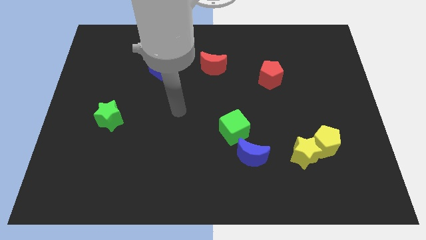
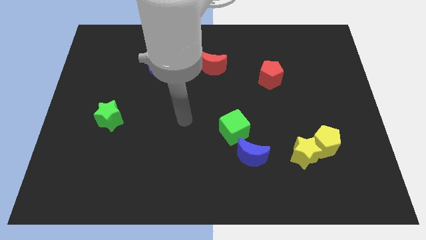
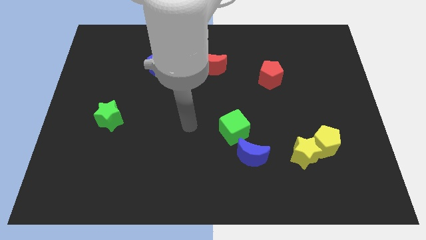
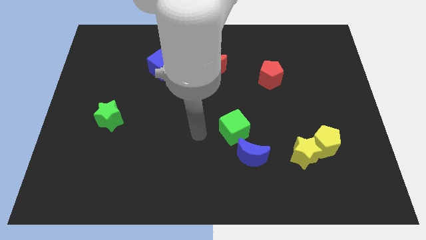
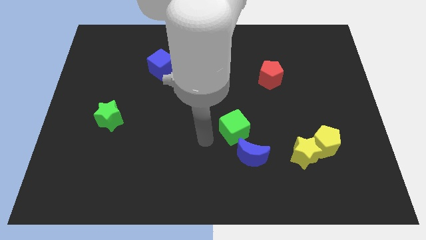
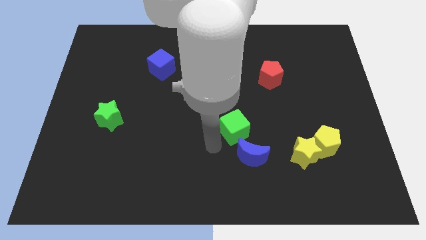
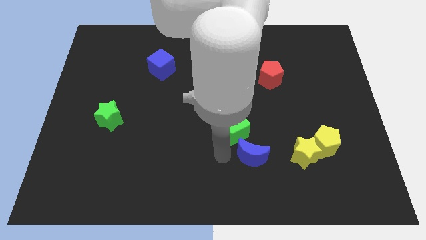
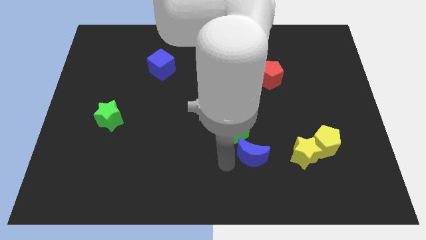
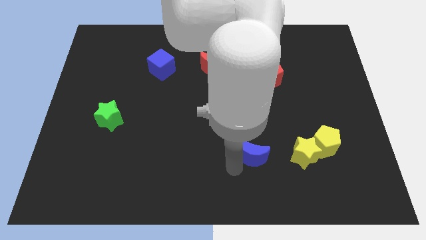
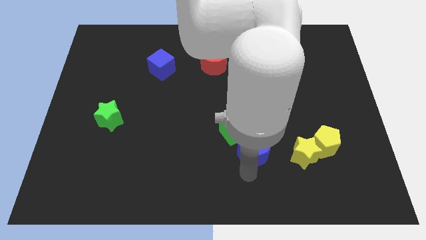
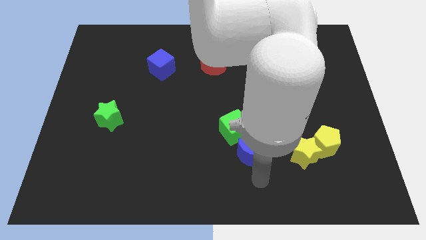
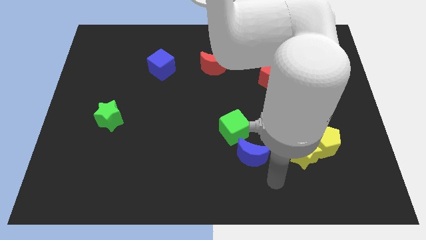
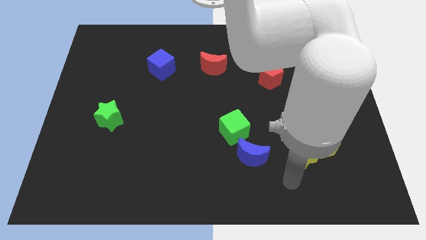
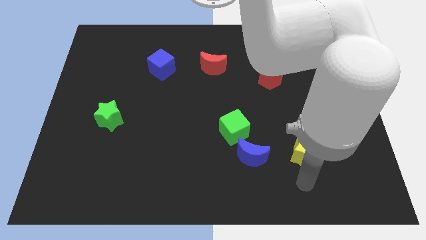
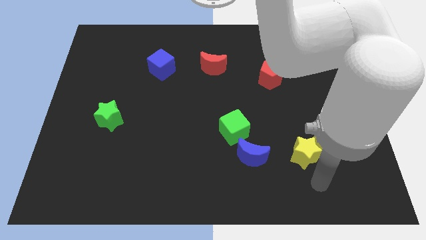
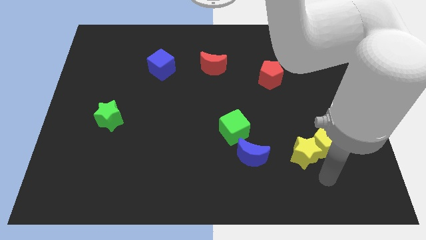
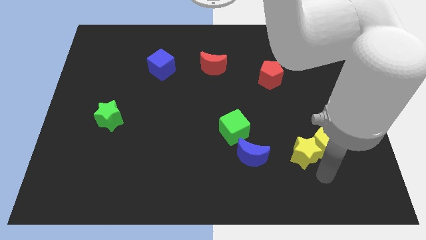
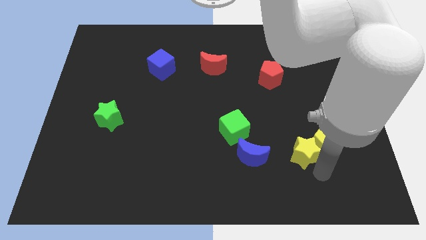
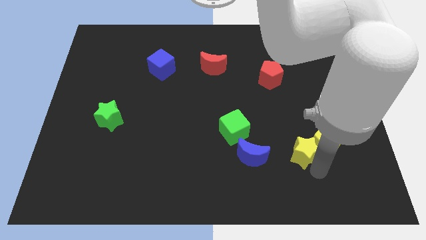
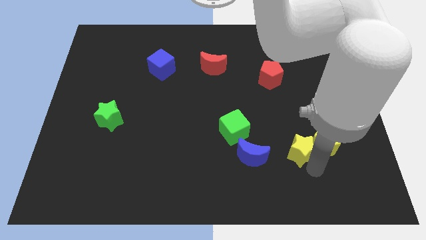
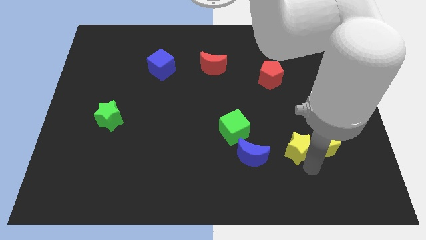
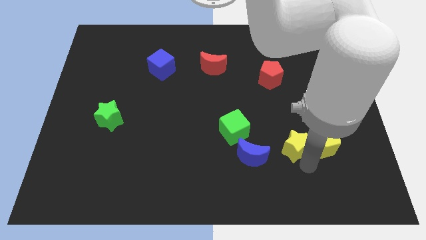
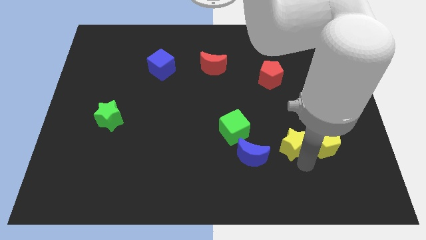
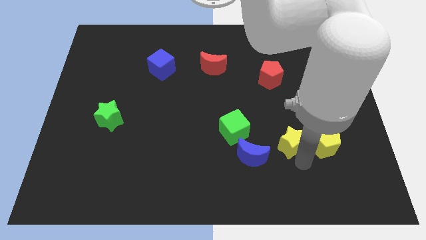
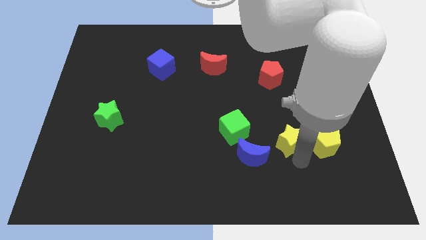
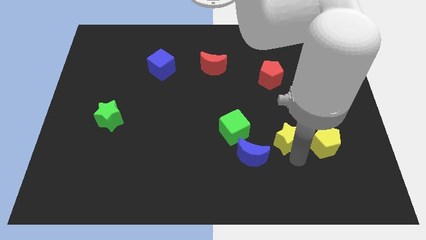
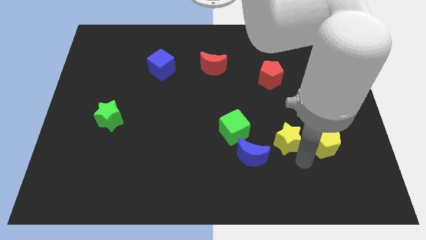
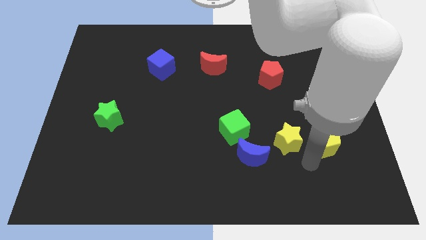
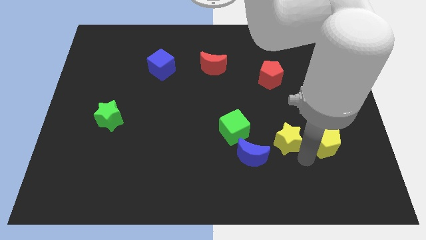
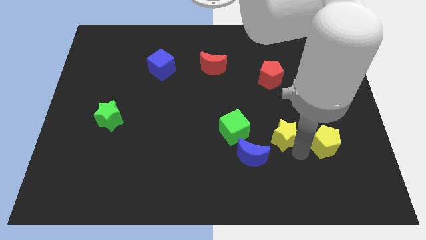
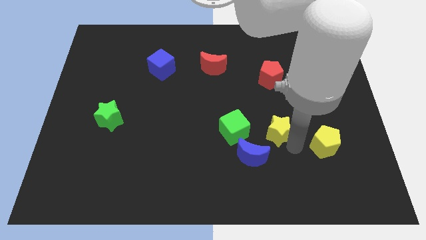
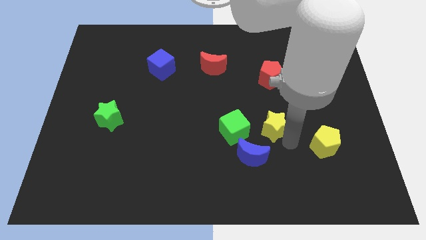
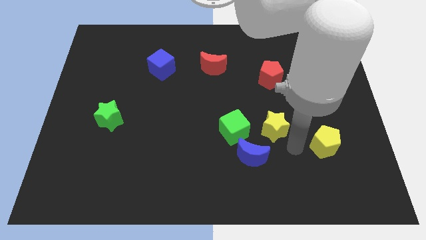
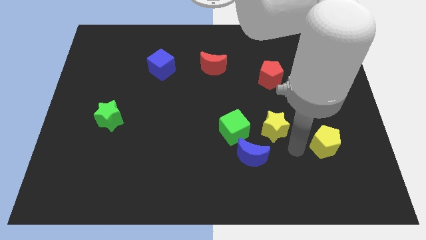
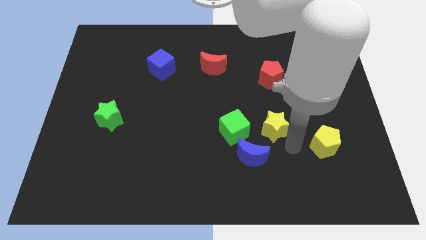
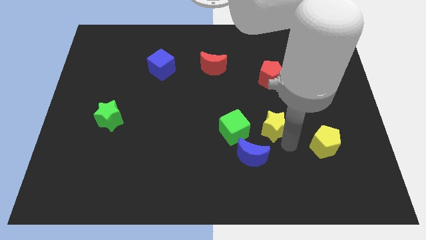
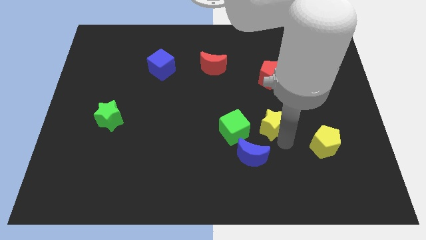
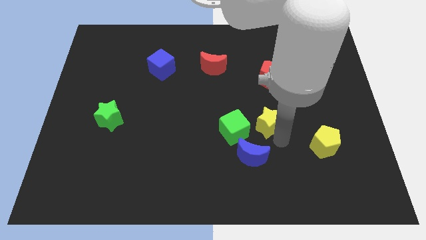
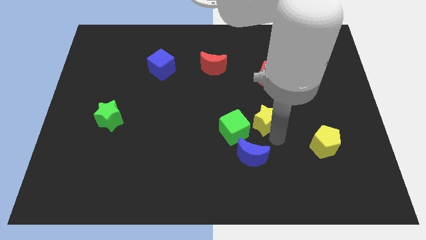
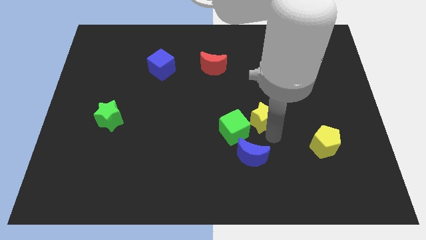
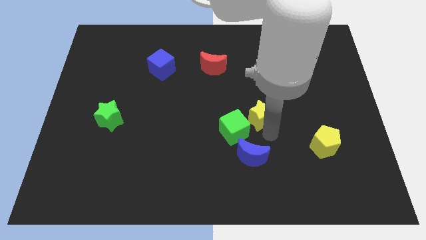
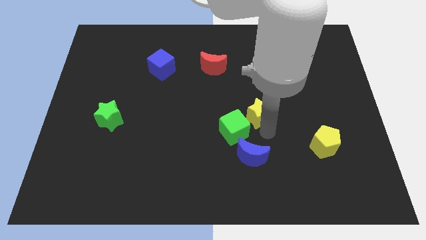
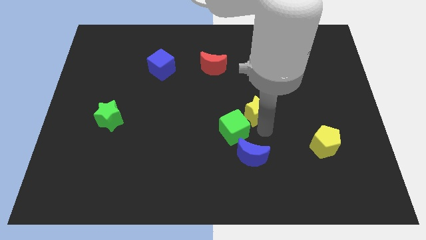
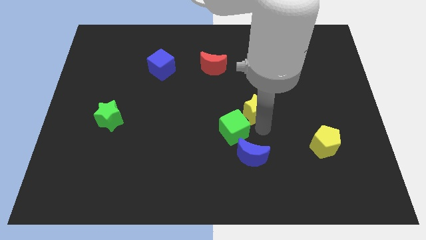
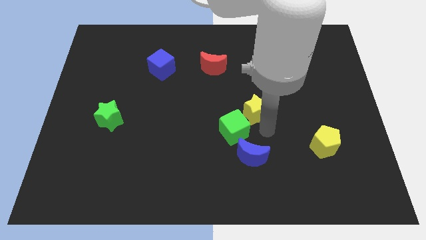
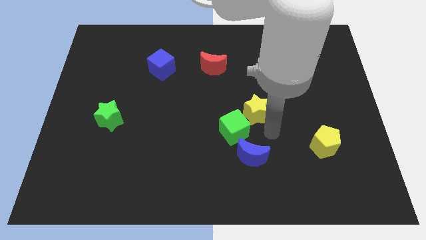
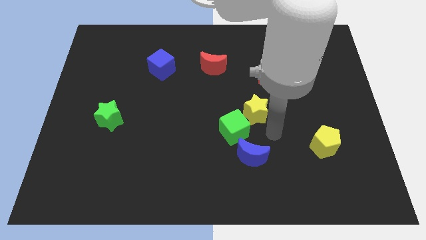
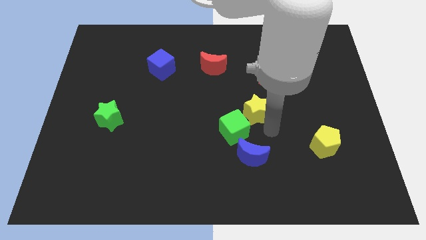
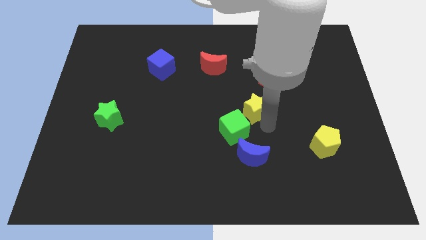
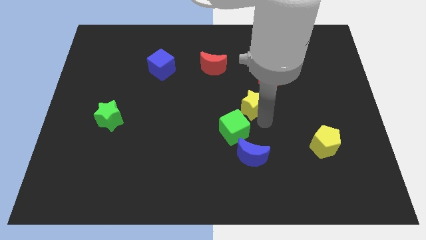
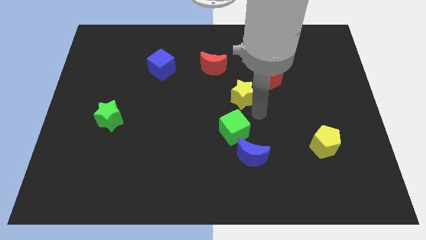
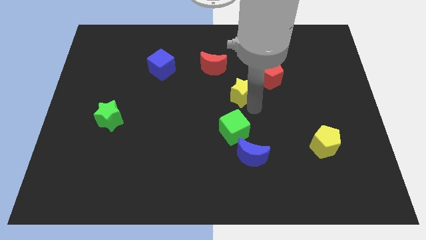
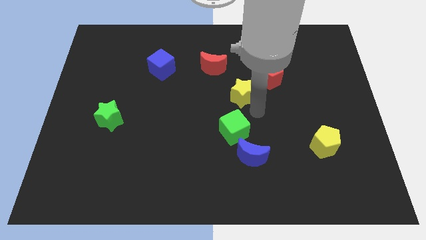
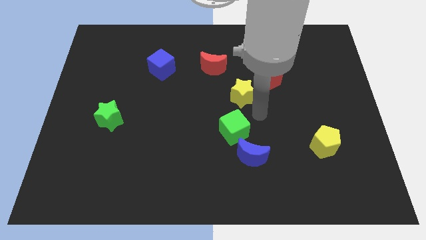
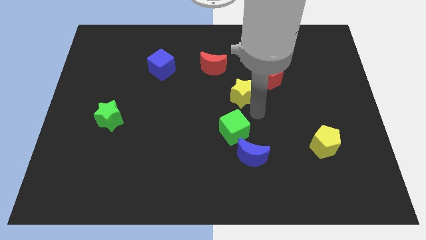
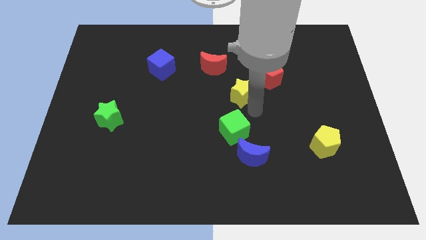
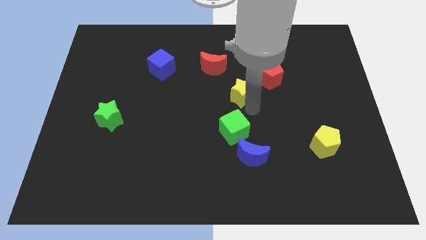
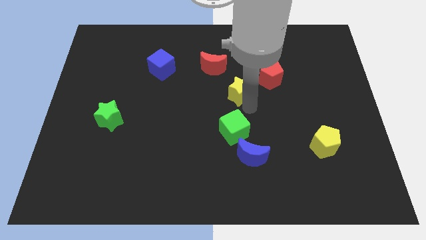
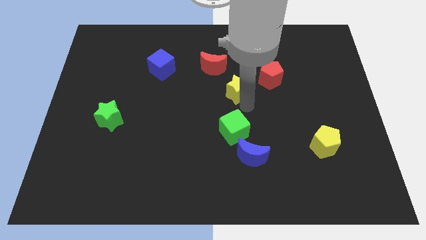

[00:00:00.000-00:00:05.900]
put the yellow star to the left side of the red pentagon

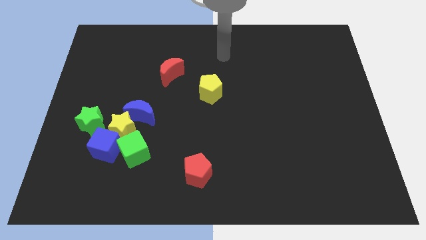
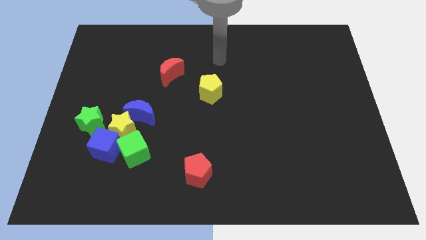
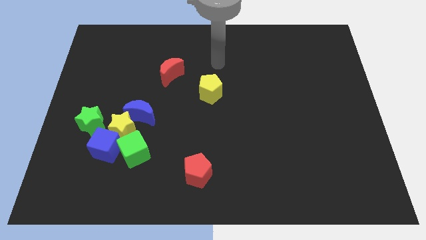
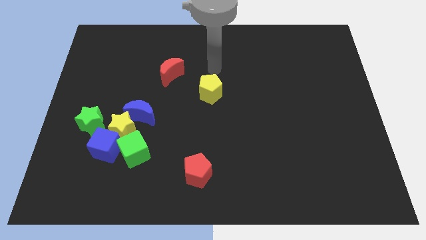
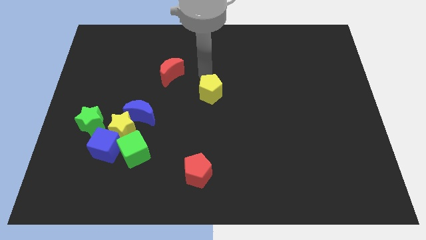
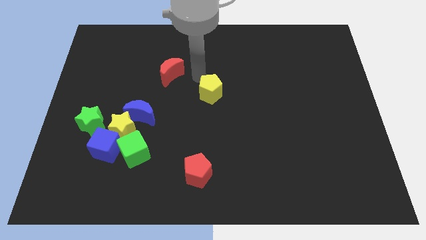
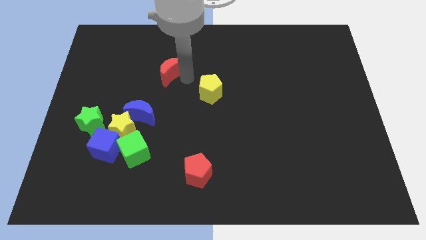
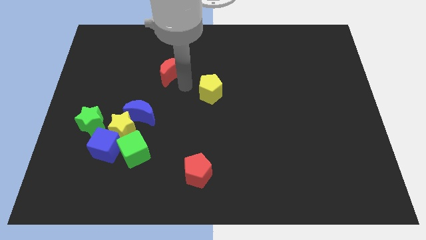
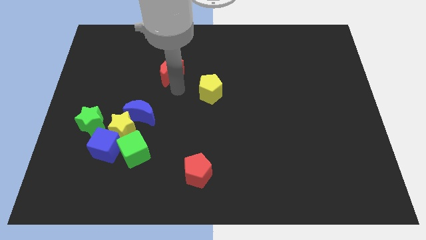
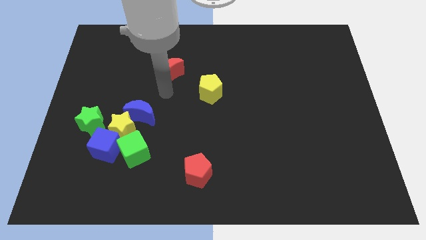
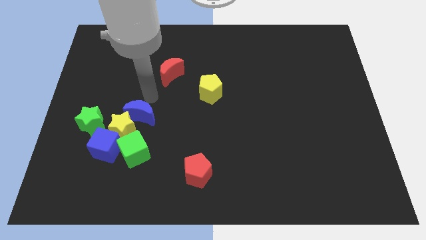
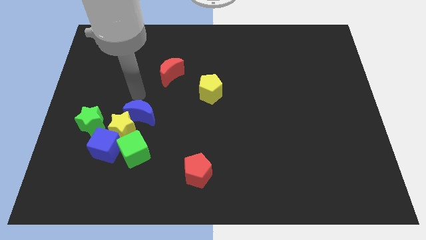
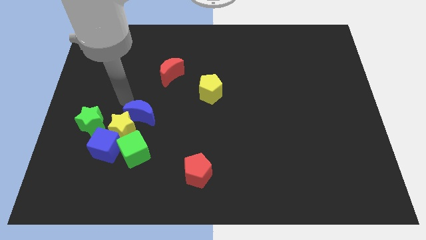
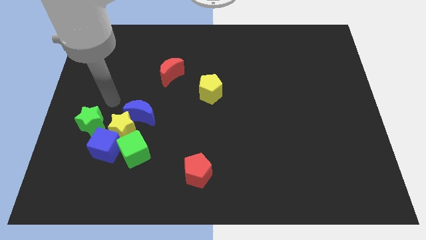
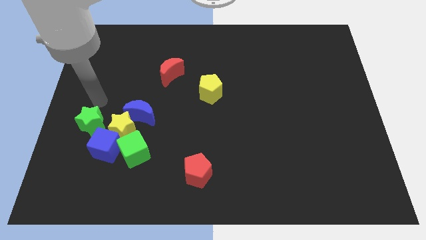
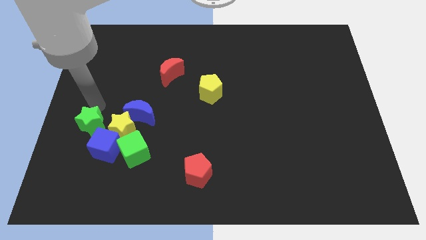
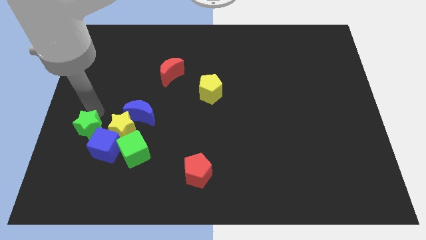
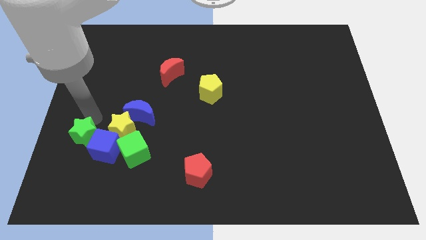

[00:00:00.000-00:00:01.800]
push the green star left of the green cube
